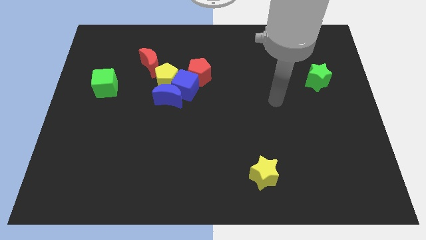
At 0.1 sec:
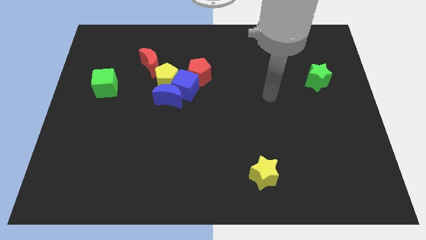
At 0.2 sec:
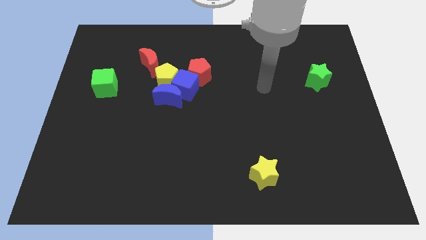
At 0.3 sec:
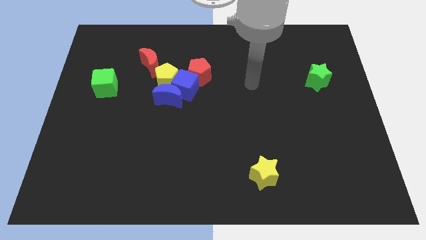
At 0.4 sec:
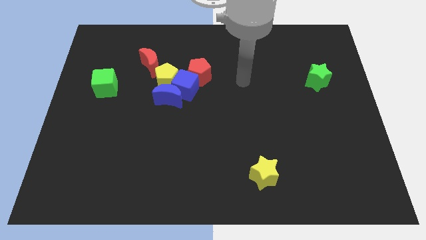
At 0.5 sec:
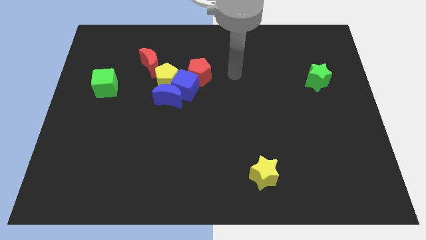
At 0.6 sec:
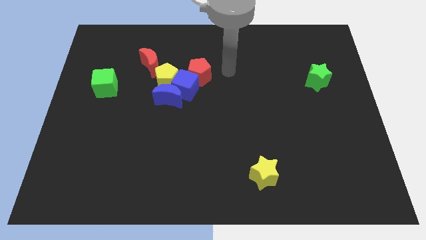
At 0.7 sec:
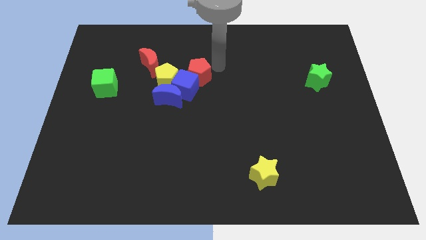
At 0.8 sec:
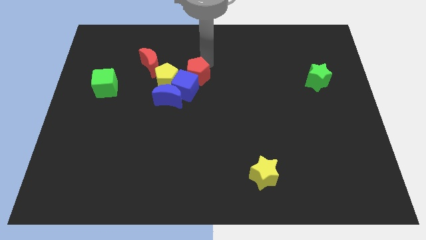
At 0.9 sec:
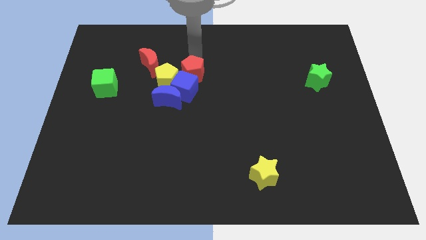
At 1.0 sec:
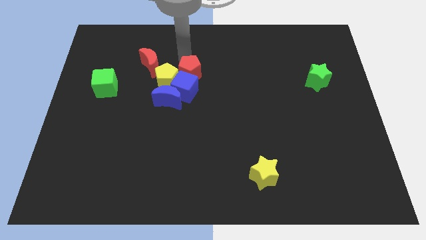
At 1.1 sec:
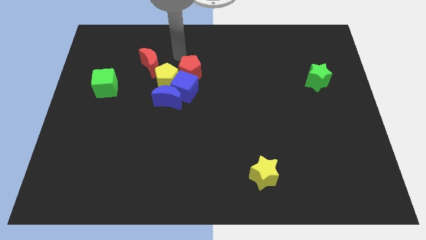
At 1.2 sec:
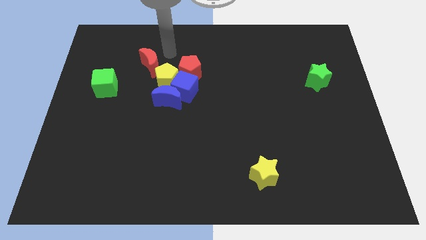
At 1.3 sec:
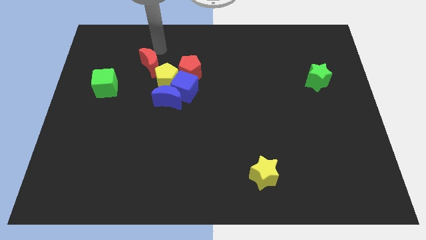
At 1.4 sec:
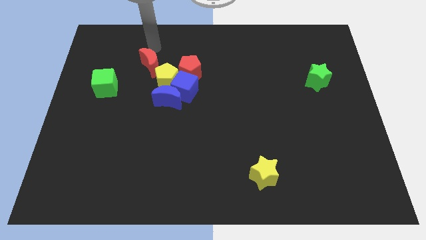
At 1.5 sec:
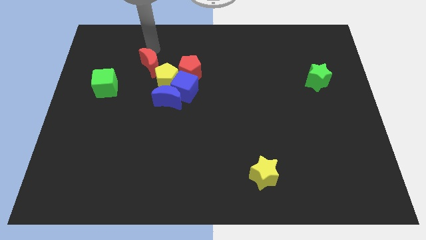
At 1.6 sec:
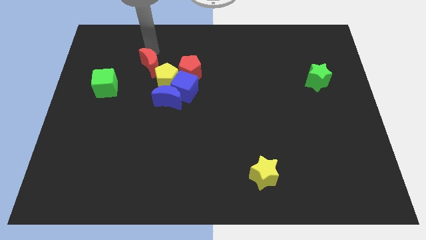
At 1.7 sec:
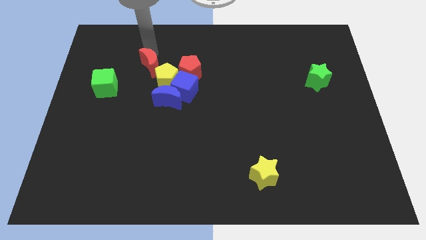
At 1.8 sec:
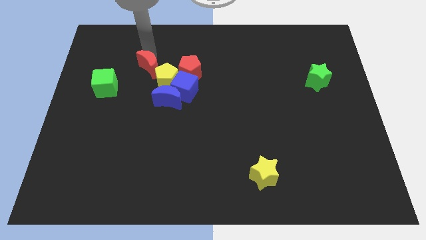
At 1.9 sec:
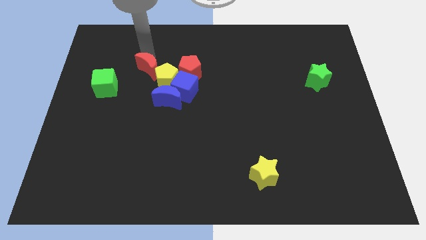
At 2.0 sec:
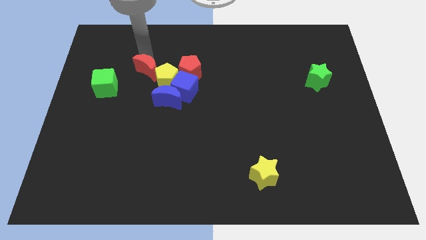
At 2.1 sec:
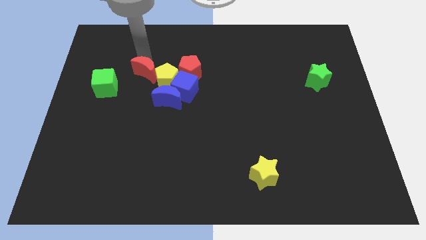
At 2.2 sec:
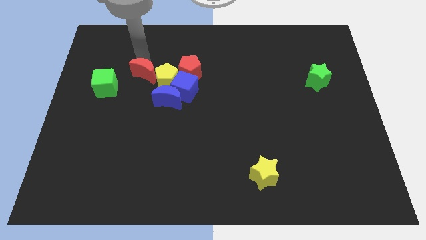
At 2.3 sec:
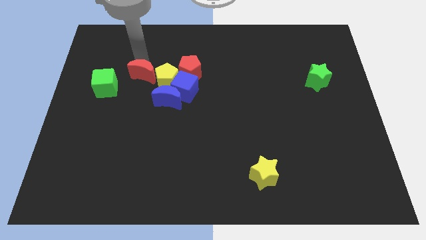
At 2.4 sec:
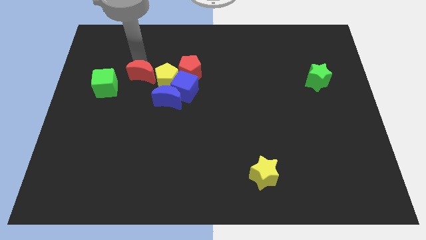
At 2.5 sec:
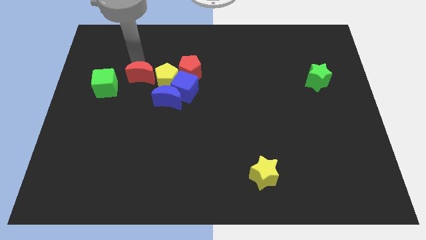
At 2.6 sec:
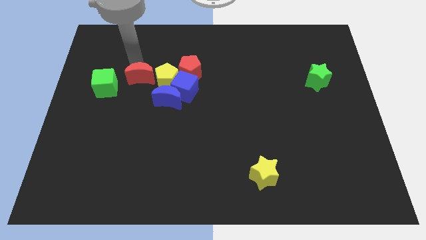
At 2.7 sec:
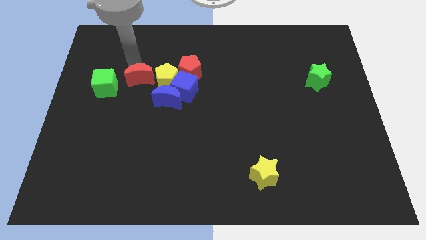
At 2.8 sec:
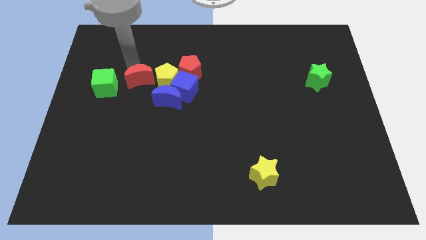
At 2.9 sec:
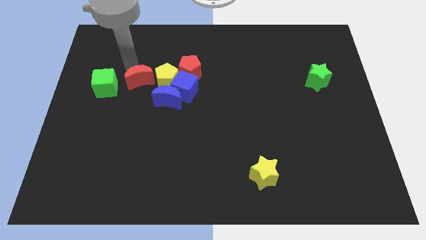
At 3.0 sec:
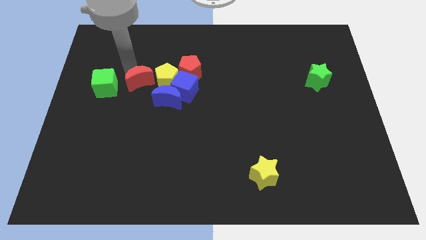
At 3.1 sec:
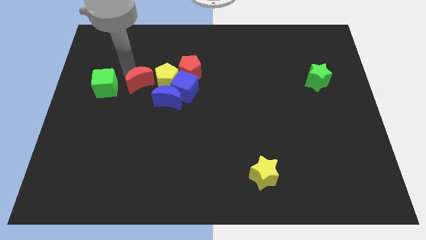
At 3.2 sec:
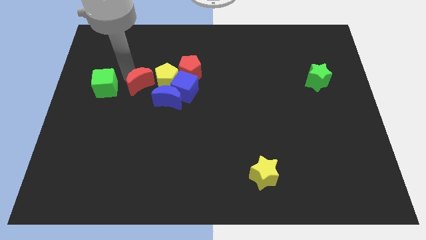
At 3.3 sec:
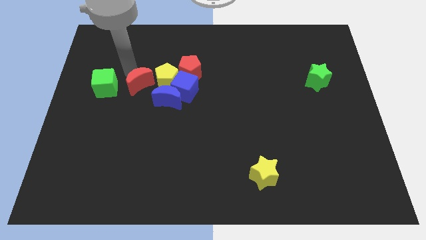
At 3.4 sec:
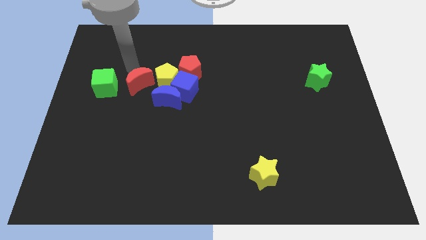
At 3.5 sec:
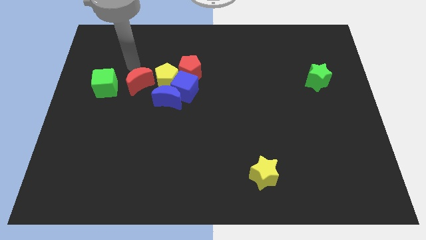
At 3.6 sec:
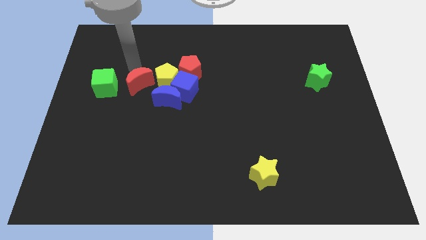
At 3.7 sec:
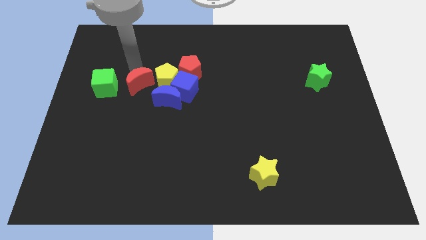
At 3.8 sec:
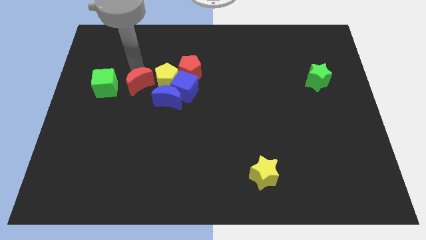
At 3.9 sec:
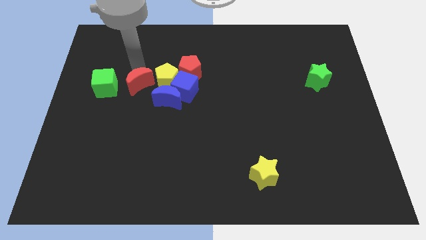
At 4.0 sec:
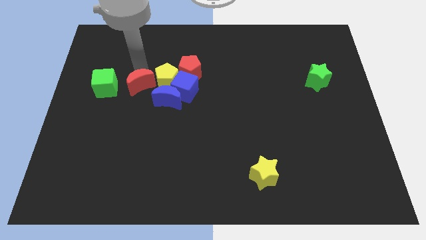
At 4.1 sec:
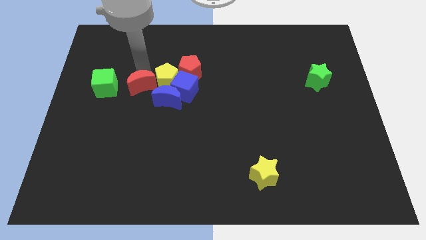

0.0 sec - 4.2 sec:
push the red moon a little downwards

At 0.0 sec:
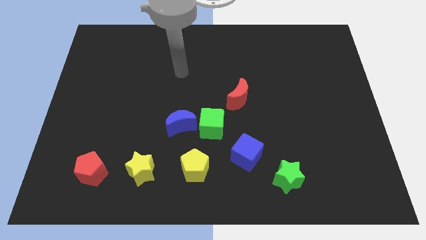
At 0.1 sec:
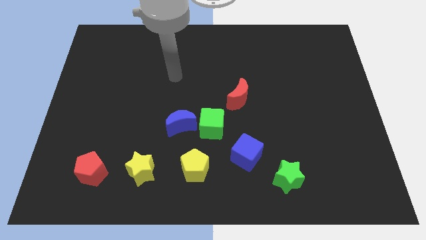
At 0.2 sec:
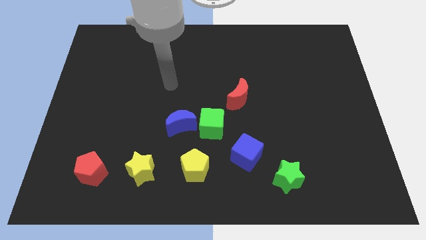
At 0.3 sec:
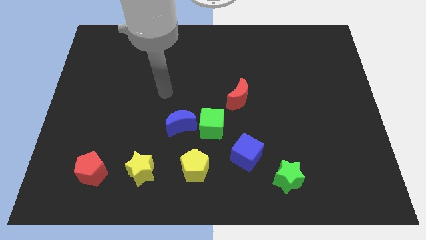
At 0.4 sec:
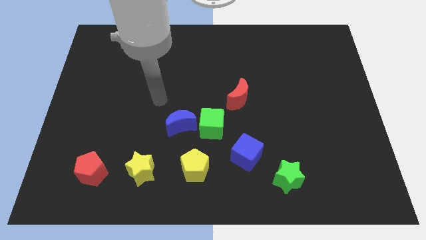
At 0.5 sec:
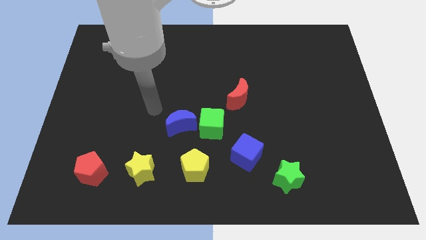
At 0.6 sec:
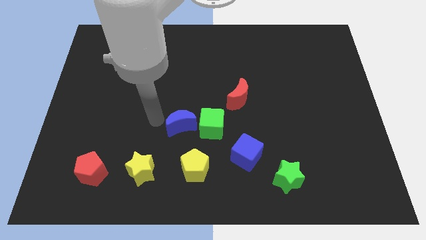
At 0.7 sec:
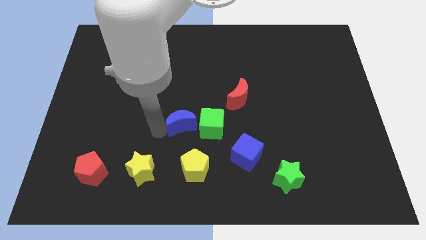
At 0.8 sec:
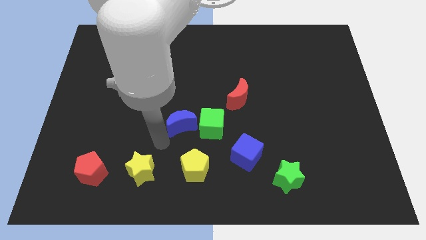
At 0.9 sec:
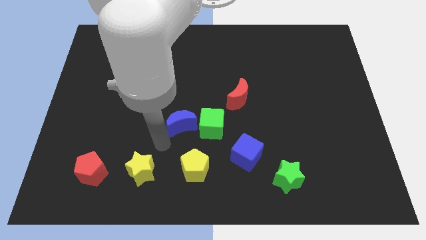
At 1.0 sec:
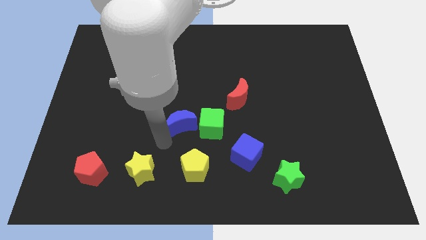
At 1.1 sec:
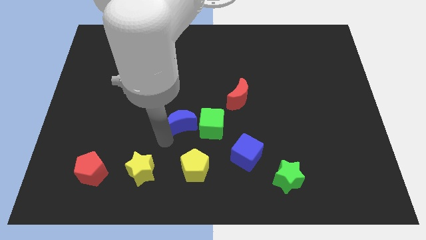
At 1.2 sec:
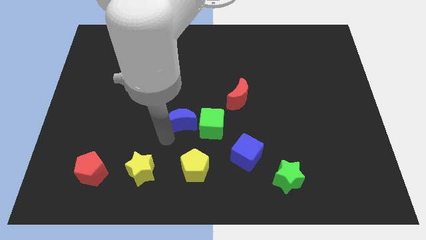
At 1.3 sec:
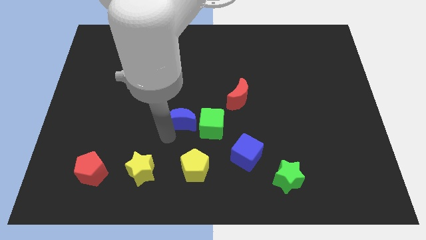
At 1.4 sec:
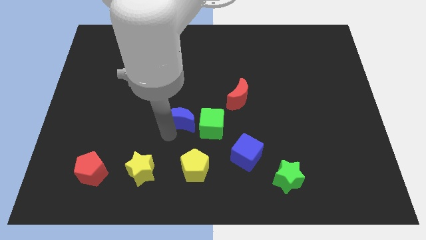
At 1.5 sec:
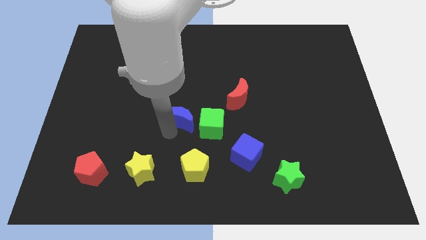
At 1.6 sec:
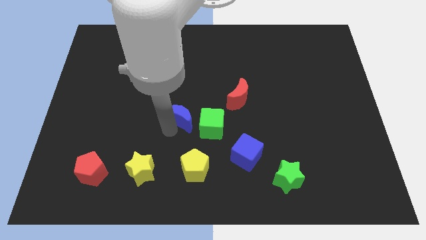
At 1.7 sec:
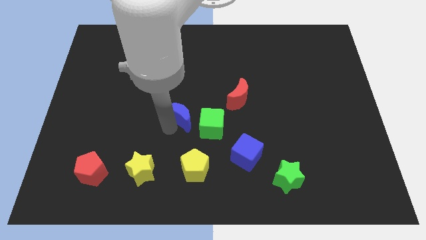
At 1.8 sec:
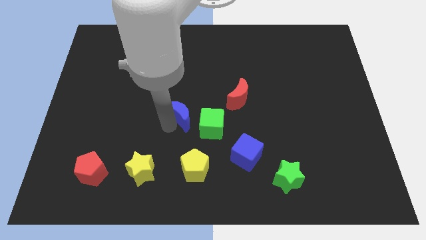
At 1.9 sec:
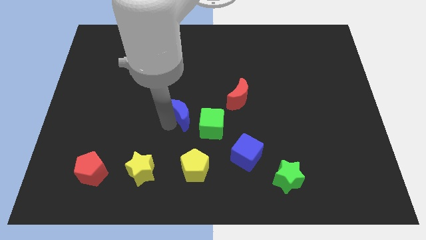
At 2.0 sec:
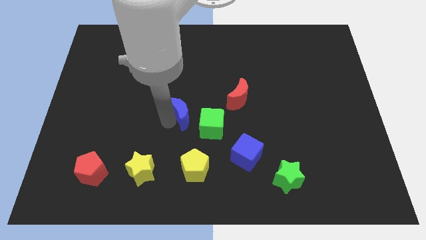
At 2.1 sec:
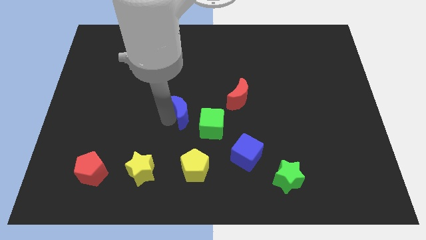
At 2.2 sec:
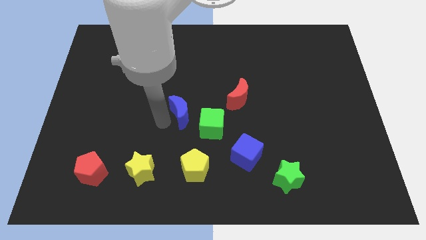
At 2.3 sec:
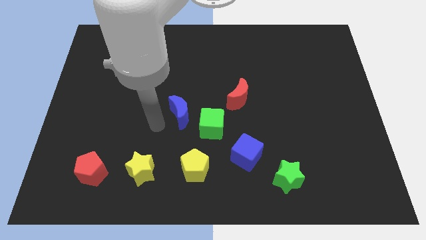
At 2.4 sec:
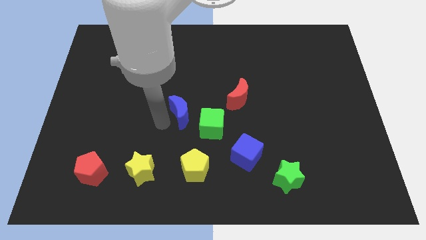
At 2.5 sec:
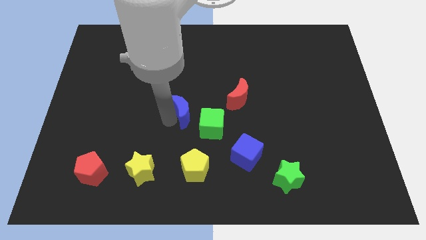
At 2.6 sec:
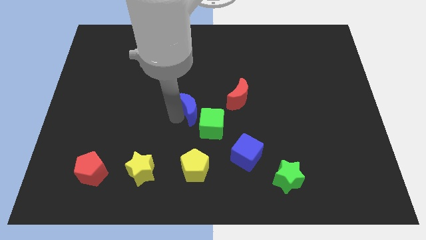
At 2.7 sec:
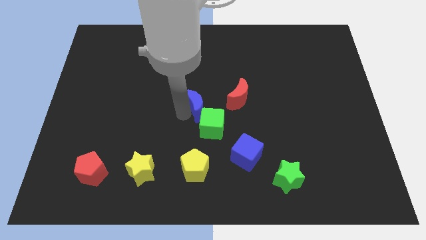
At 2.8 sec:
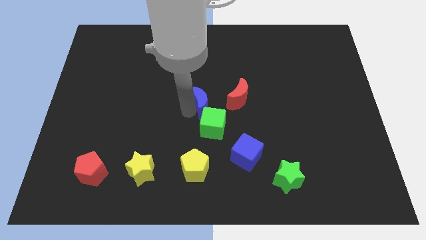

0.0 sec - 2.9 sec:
push the blue moon a little diagonally upwards and to the right

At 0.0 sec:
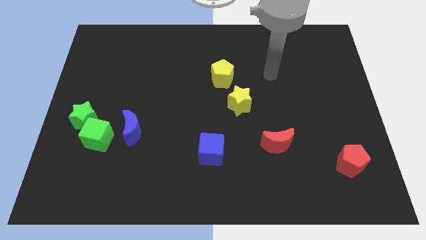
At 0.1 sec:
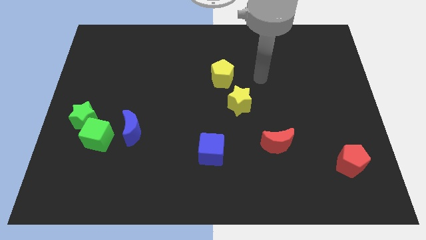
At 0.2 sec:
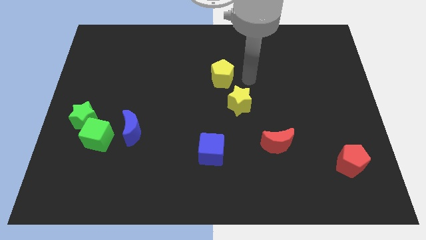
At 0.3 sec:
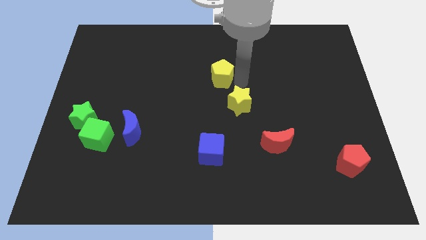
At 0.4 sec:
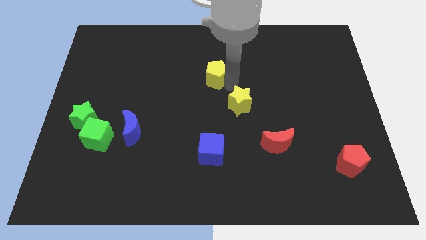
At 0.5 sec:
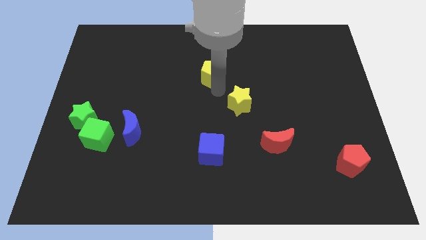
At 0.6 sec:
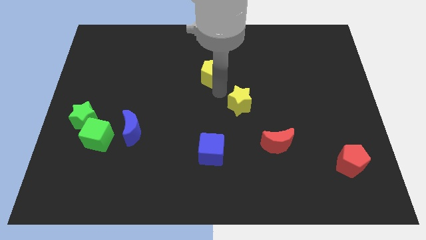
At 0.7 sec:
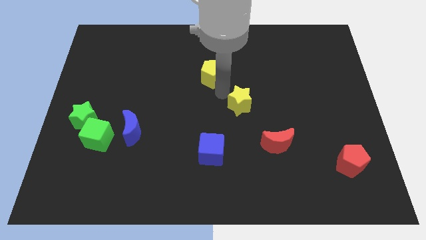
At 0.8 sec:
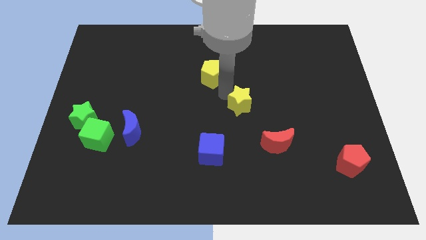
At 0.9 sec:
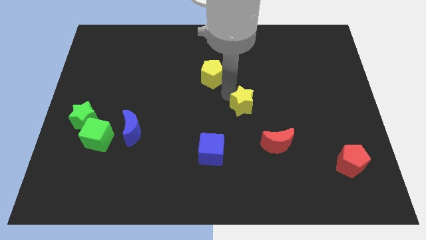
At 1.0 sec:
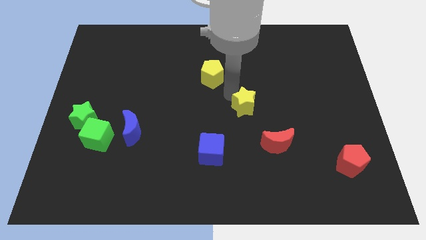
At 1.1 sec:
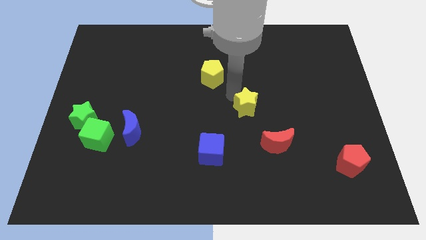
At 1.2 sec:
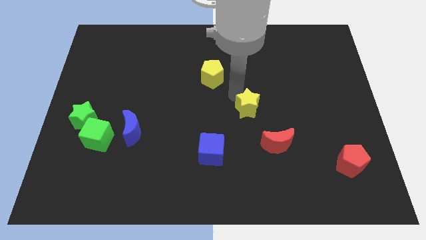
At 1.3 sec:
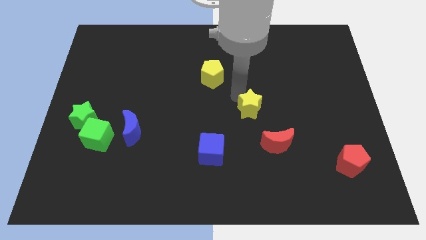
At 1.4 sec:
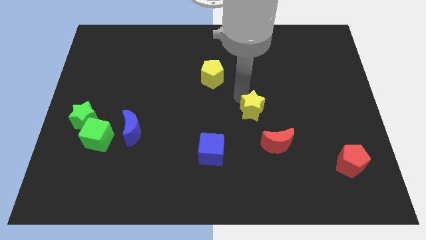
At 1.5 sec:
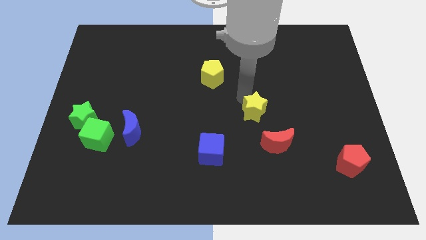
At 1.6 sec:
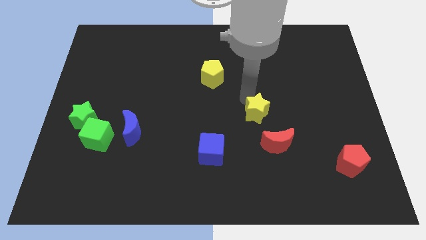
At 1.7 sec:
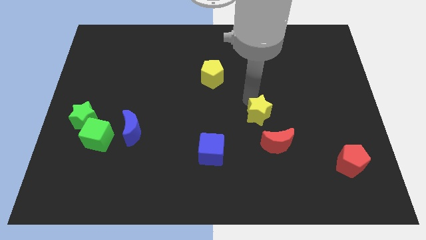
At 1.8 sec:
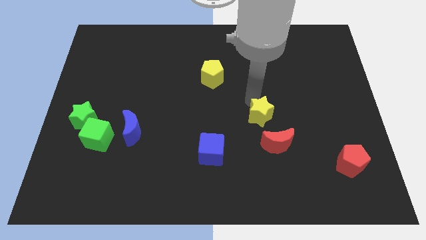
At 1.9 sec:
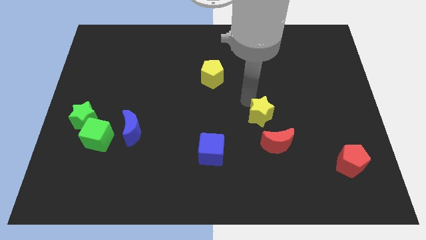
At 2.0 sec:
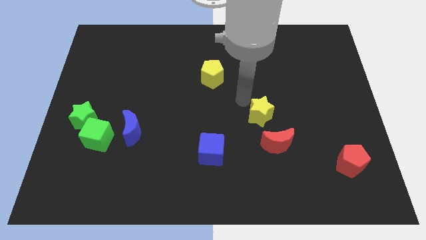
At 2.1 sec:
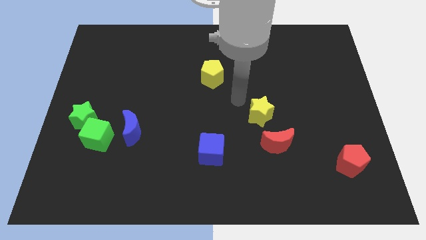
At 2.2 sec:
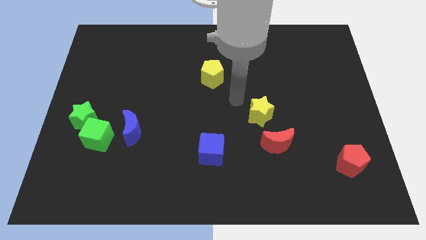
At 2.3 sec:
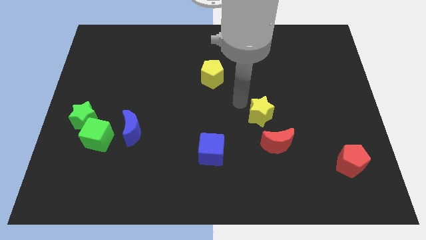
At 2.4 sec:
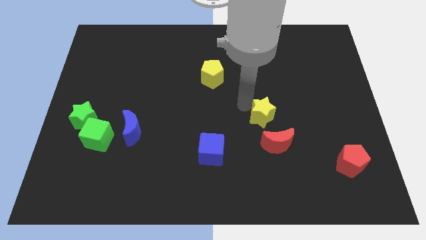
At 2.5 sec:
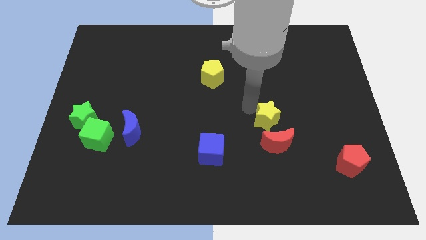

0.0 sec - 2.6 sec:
slightly move the yellow star diagonally down and to the right
